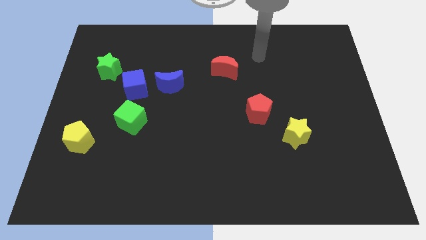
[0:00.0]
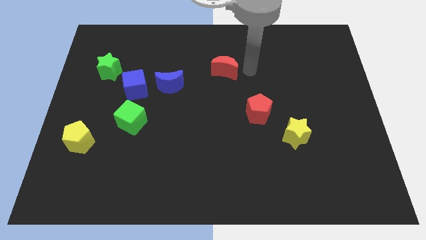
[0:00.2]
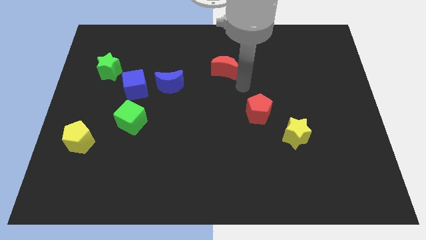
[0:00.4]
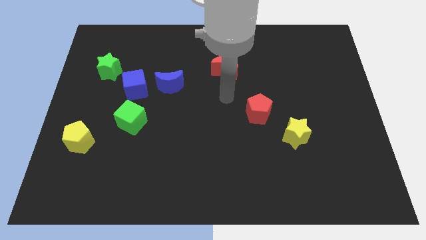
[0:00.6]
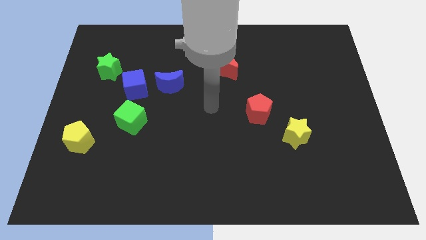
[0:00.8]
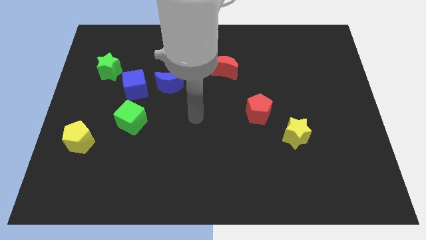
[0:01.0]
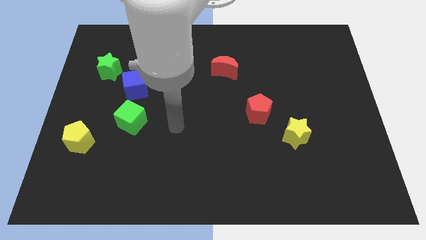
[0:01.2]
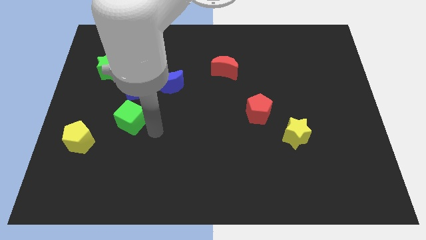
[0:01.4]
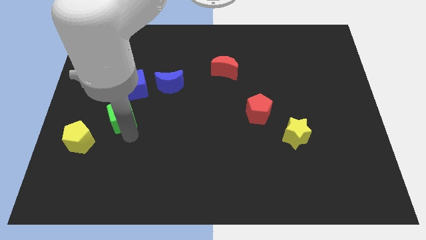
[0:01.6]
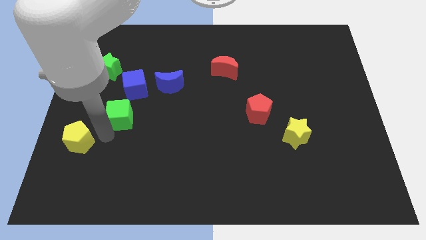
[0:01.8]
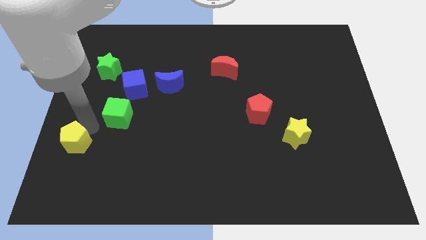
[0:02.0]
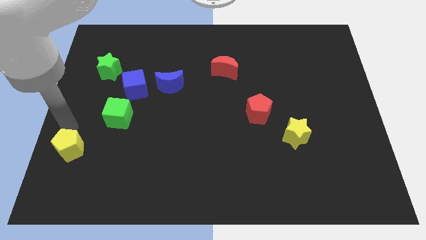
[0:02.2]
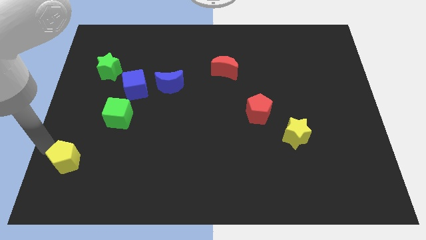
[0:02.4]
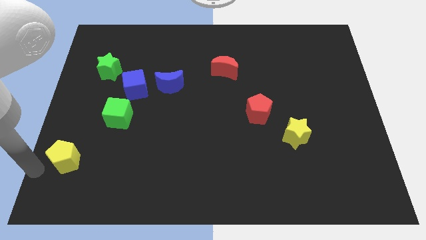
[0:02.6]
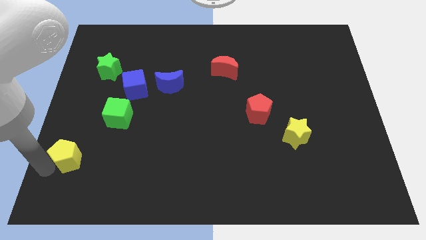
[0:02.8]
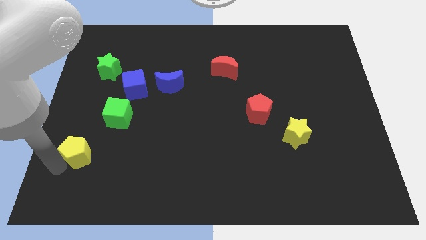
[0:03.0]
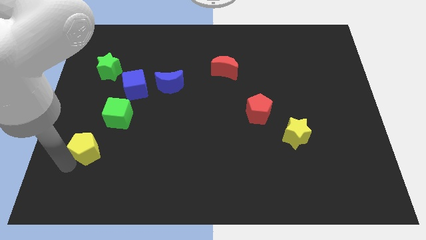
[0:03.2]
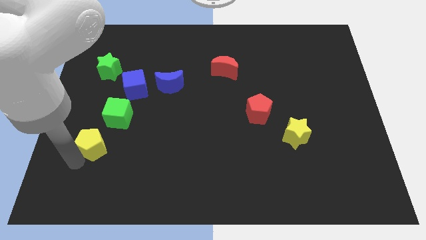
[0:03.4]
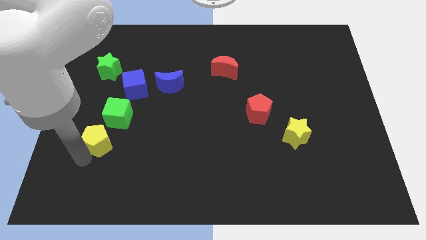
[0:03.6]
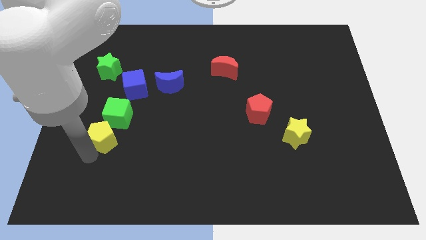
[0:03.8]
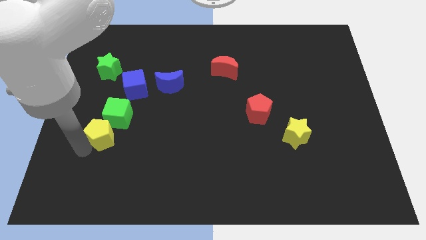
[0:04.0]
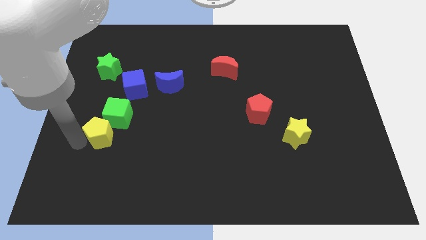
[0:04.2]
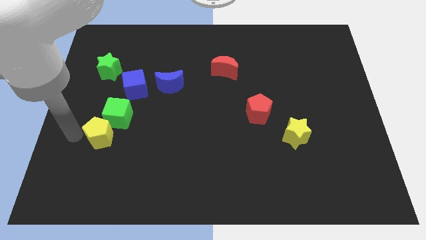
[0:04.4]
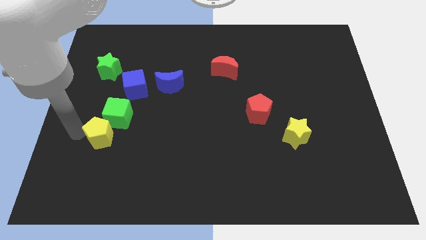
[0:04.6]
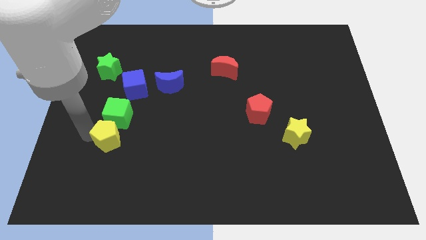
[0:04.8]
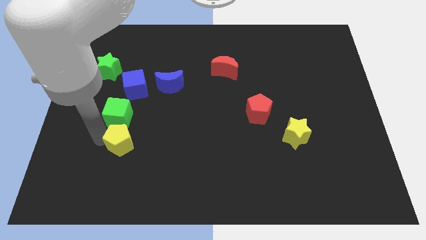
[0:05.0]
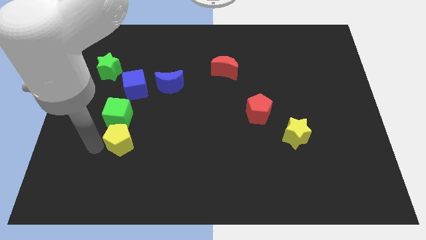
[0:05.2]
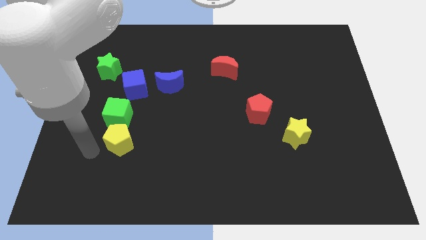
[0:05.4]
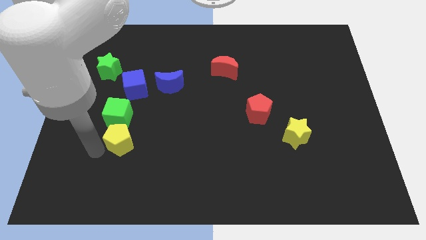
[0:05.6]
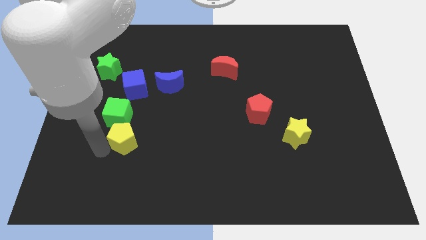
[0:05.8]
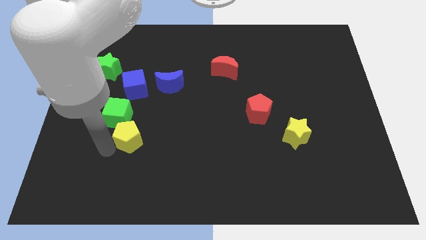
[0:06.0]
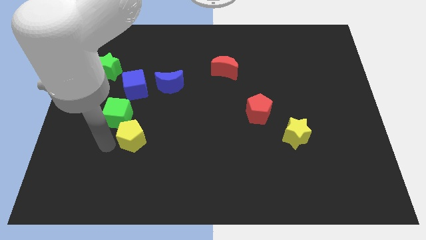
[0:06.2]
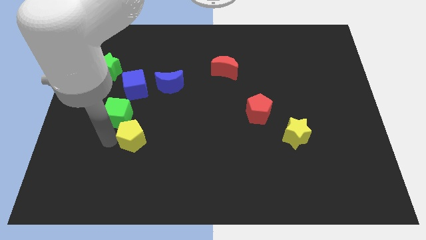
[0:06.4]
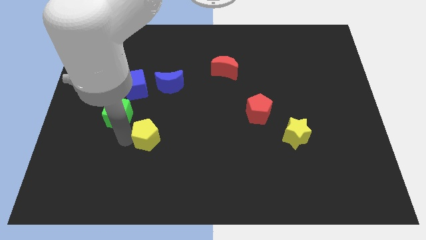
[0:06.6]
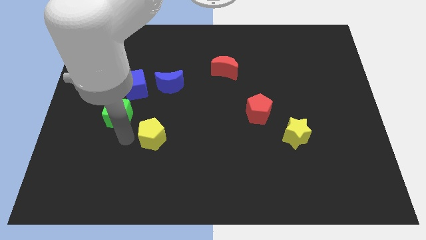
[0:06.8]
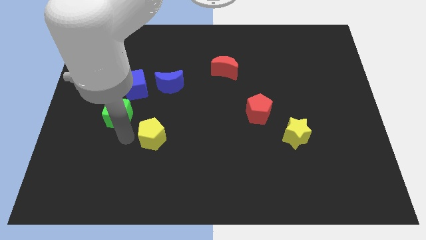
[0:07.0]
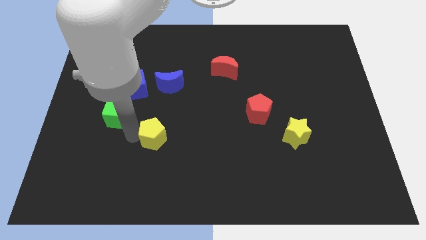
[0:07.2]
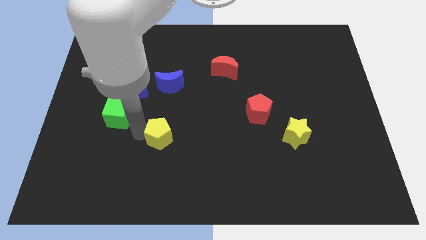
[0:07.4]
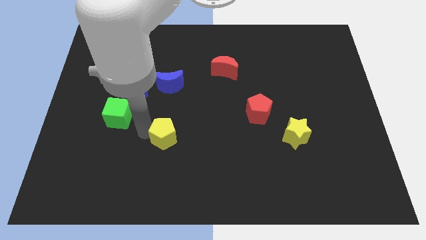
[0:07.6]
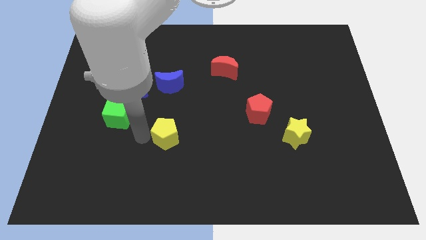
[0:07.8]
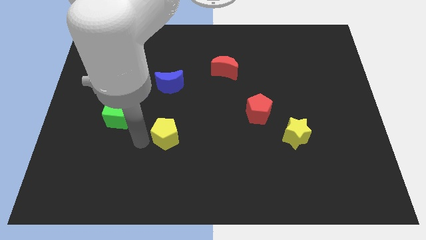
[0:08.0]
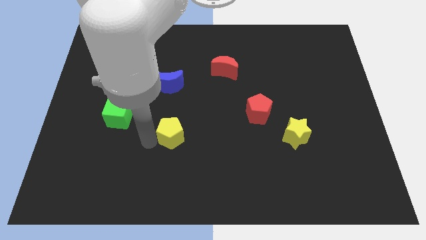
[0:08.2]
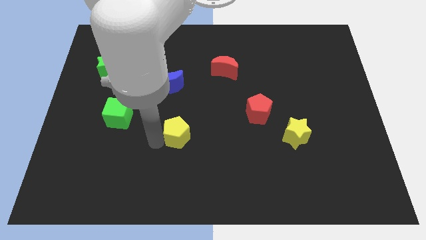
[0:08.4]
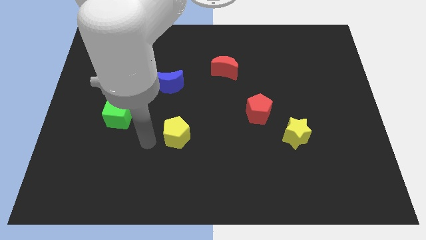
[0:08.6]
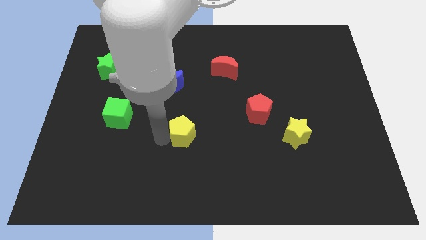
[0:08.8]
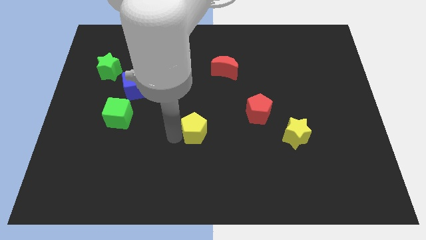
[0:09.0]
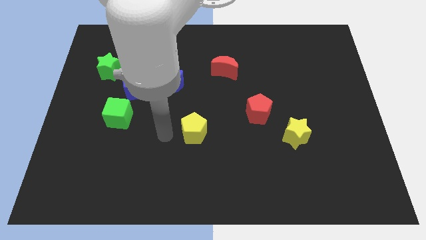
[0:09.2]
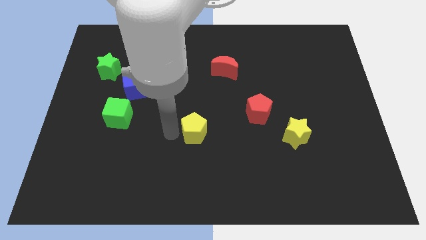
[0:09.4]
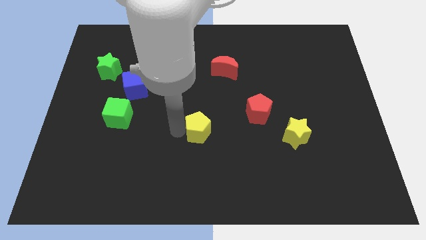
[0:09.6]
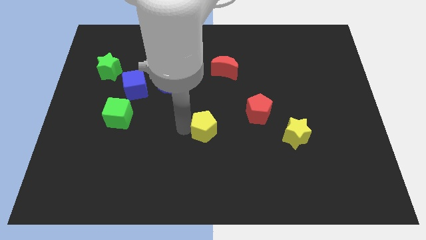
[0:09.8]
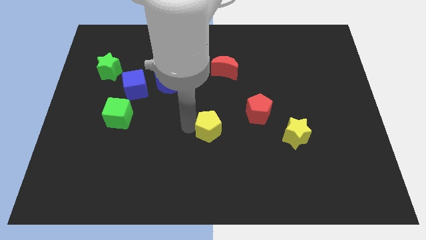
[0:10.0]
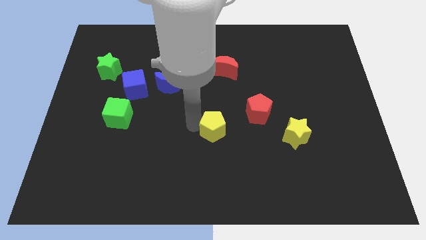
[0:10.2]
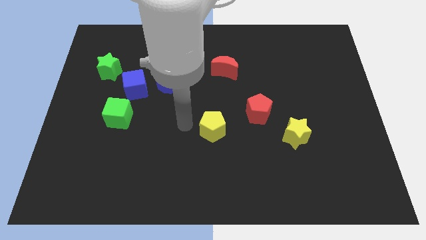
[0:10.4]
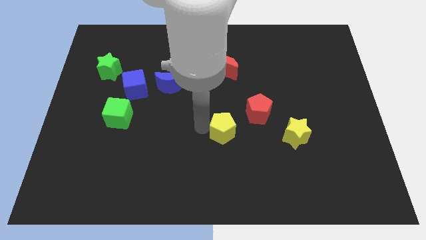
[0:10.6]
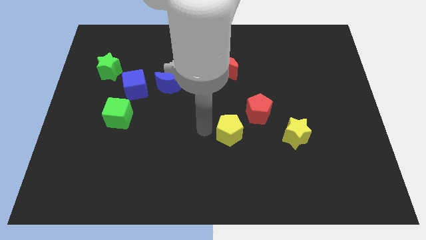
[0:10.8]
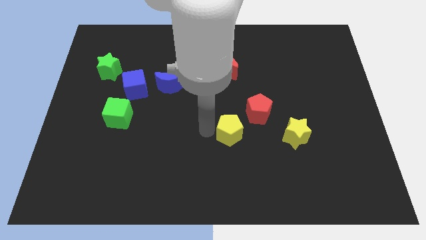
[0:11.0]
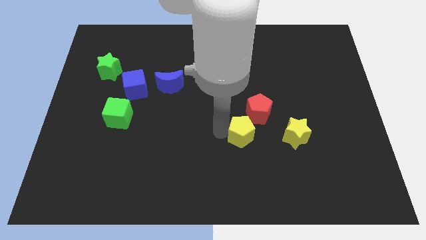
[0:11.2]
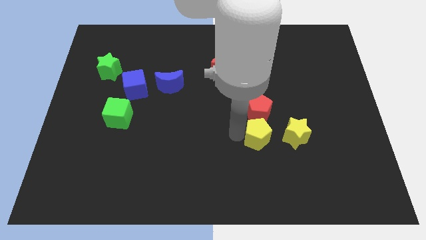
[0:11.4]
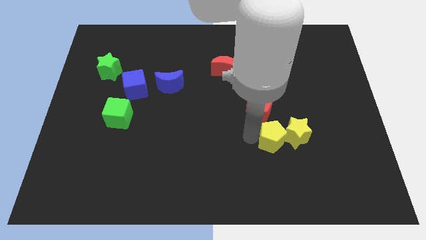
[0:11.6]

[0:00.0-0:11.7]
push the yellow pentagon towards the yellow star

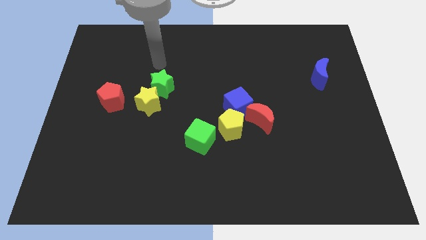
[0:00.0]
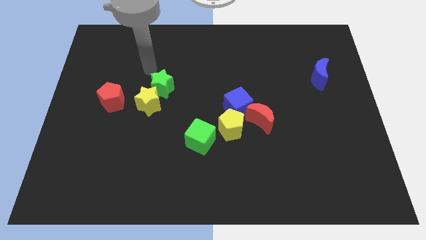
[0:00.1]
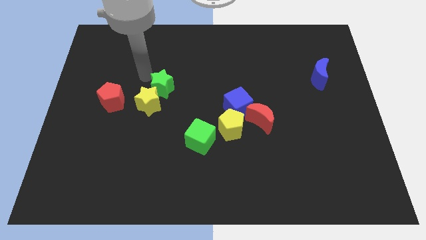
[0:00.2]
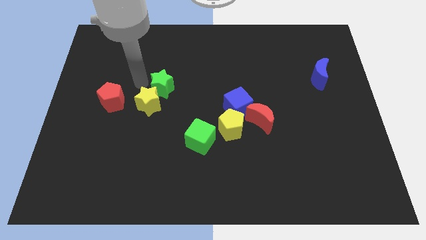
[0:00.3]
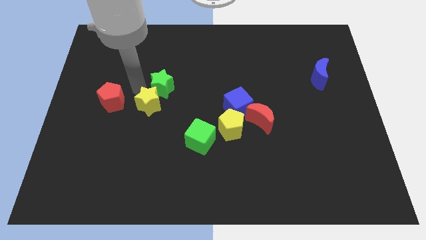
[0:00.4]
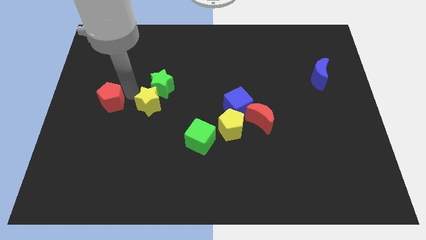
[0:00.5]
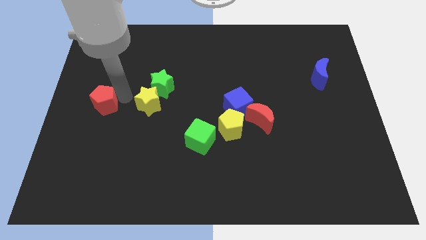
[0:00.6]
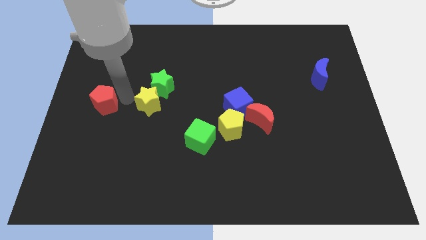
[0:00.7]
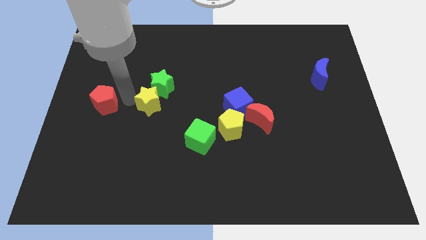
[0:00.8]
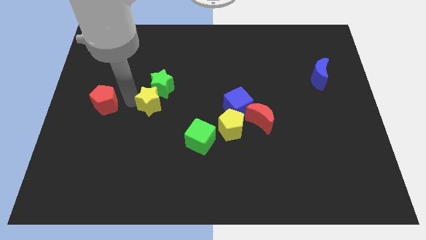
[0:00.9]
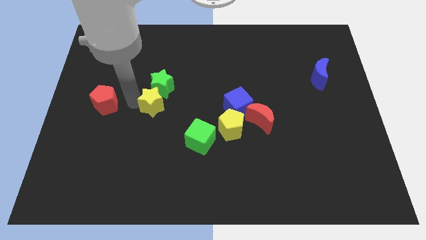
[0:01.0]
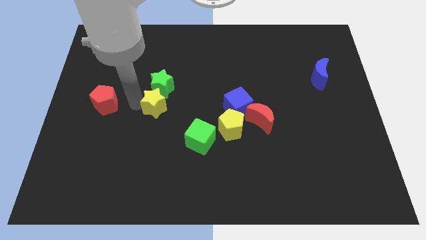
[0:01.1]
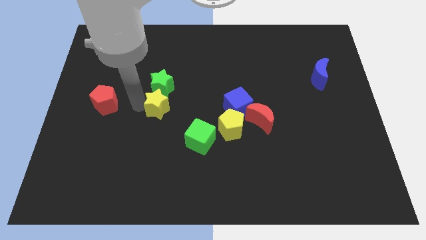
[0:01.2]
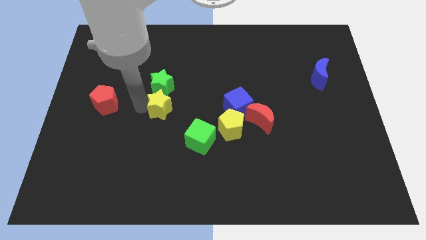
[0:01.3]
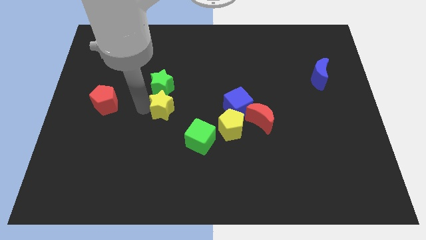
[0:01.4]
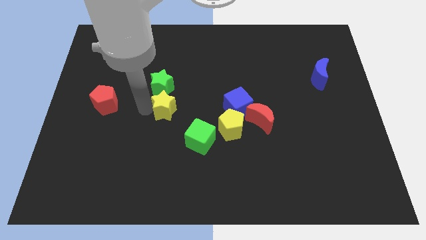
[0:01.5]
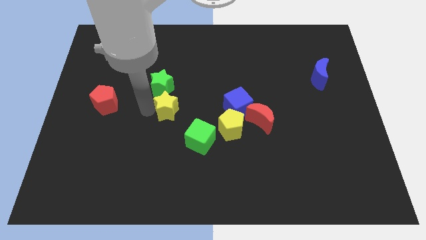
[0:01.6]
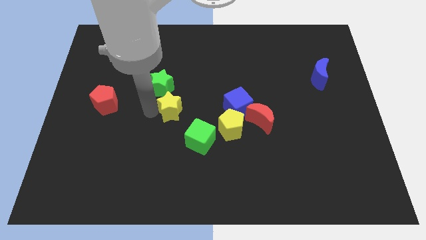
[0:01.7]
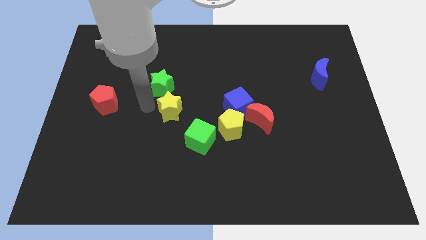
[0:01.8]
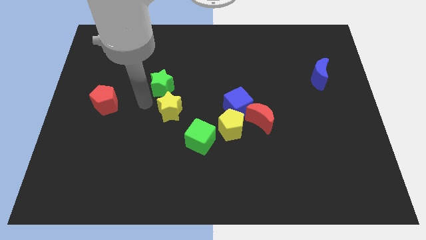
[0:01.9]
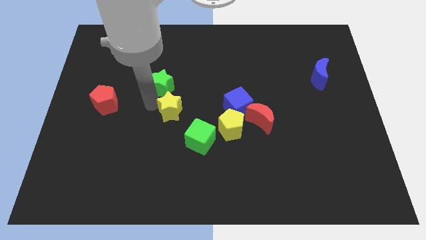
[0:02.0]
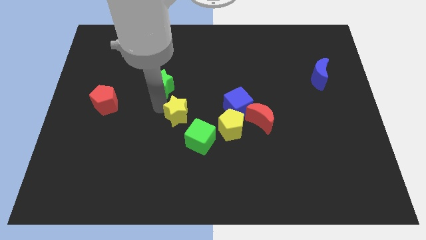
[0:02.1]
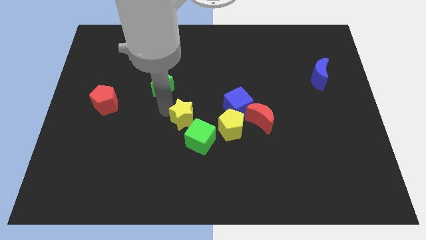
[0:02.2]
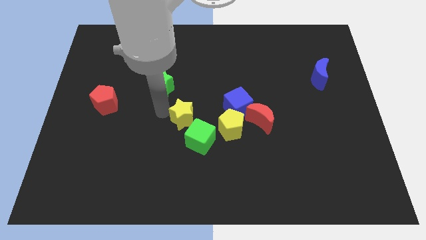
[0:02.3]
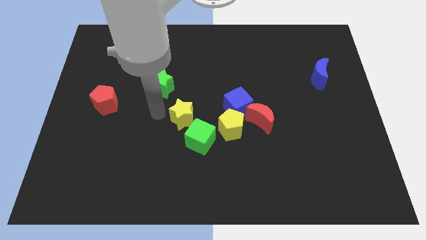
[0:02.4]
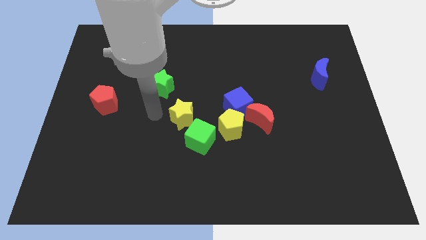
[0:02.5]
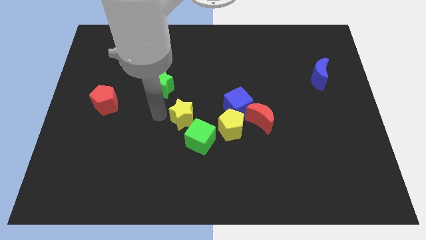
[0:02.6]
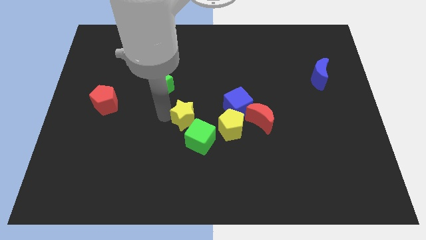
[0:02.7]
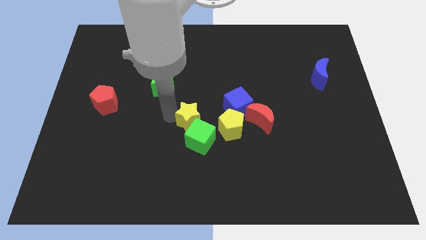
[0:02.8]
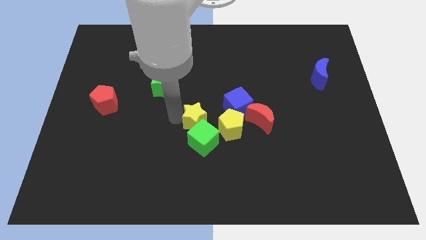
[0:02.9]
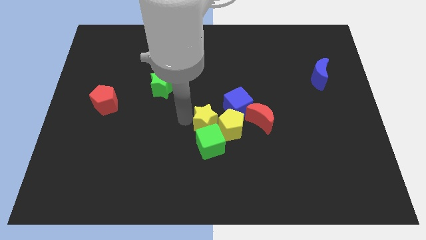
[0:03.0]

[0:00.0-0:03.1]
put the yellow star towards the yellow pentagon
